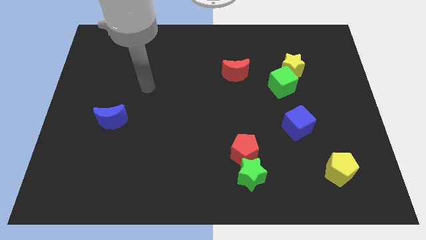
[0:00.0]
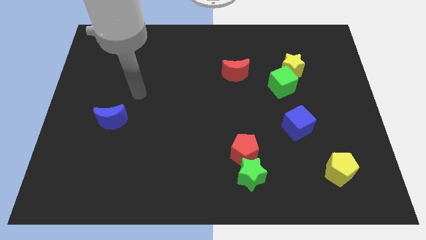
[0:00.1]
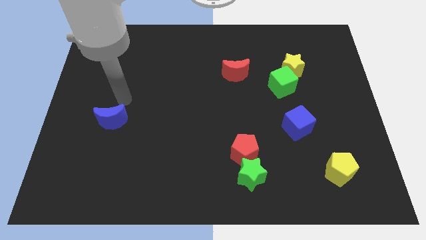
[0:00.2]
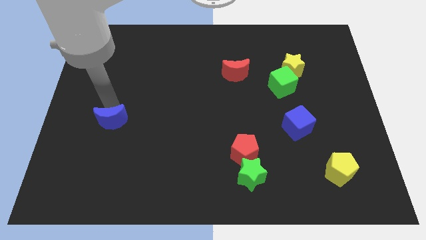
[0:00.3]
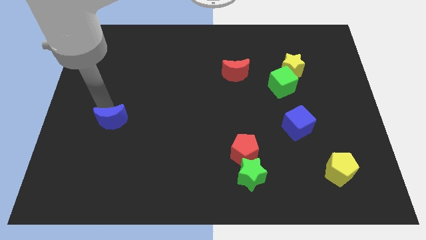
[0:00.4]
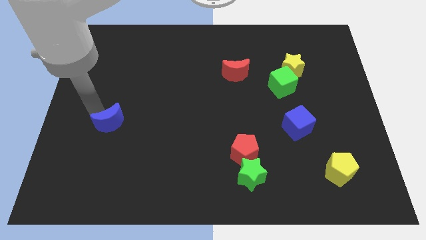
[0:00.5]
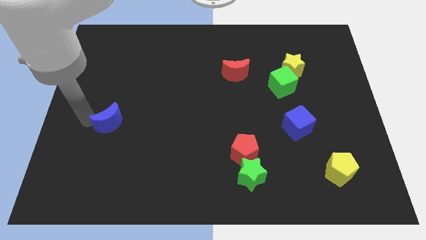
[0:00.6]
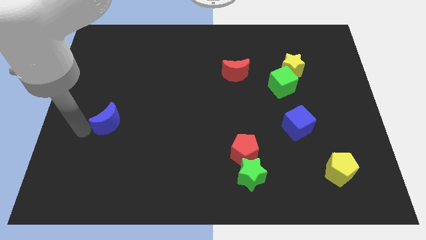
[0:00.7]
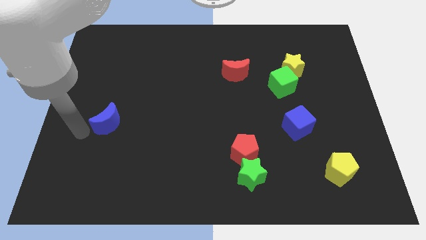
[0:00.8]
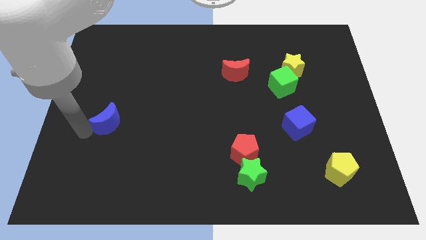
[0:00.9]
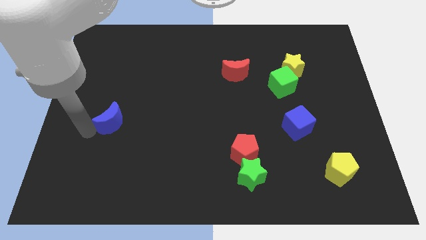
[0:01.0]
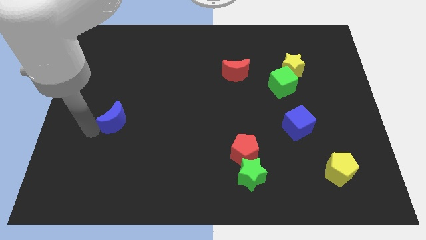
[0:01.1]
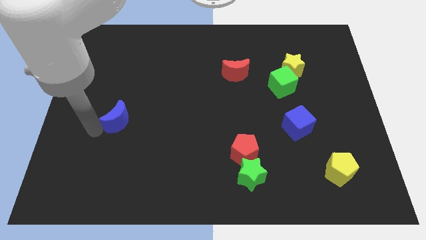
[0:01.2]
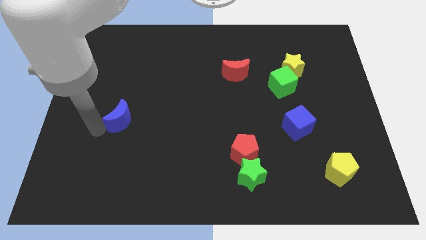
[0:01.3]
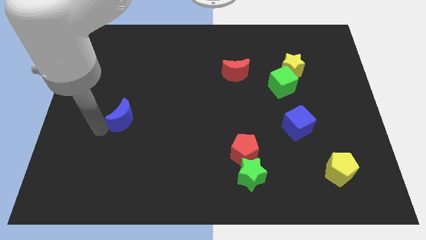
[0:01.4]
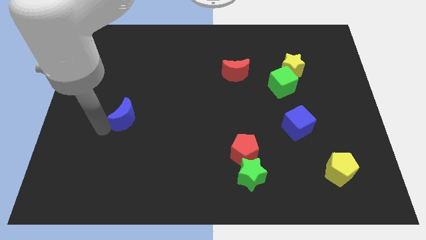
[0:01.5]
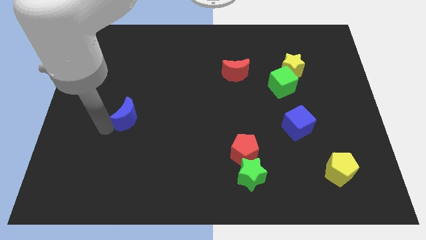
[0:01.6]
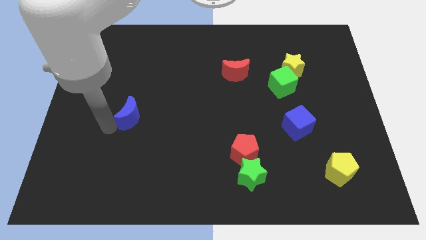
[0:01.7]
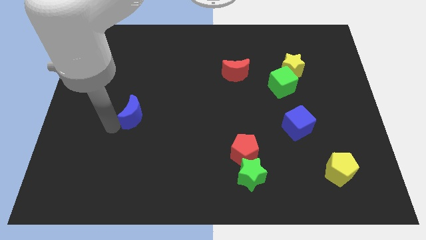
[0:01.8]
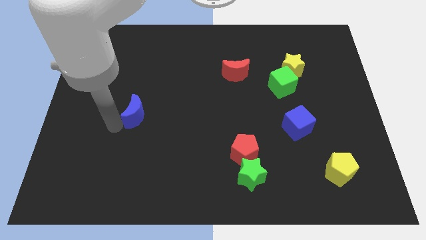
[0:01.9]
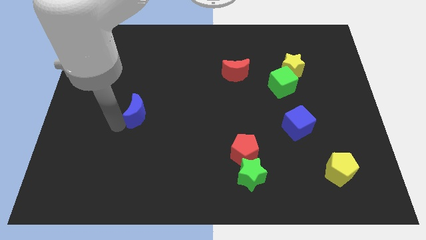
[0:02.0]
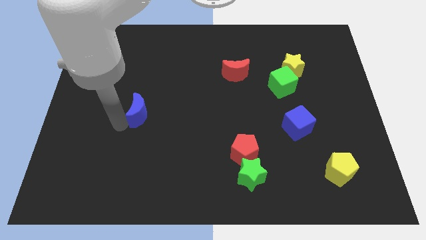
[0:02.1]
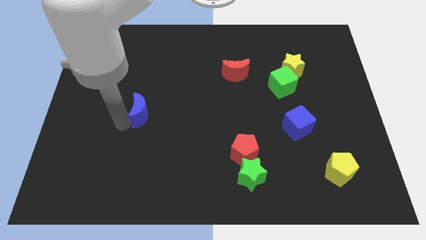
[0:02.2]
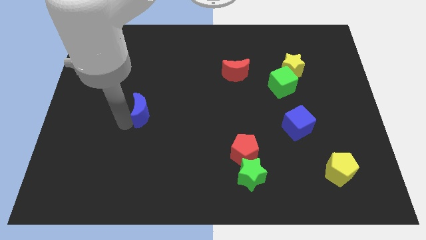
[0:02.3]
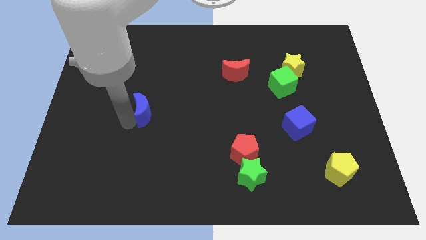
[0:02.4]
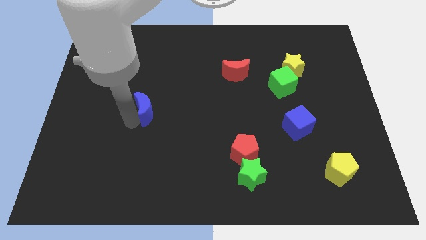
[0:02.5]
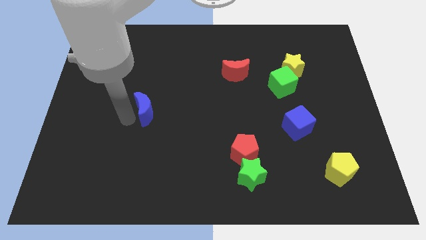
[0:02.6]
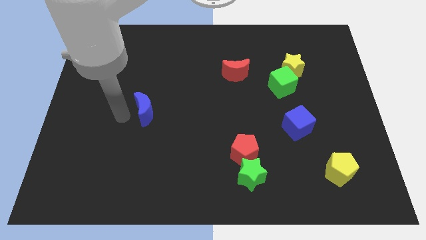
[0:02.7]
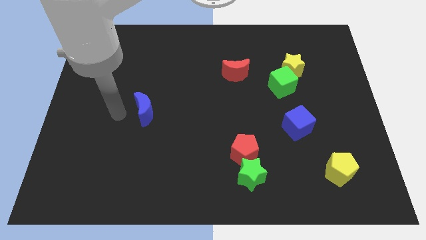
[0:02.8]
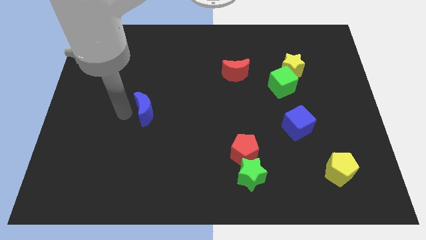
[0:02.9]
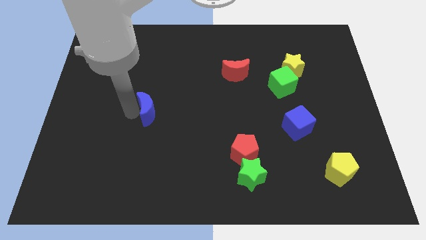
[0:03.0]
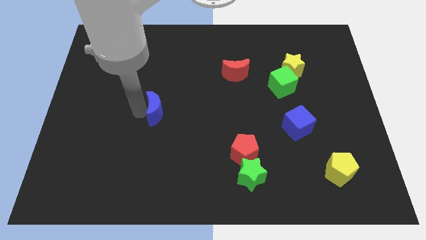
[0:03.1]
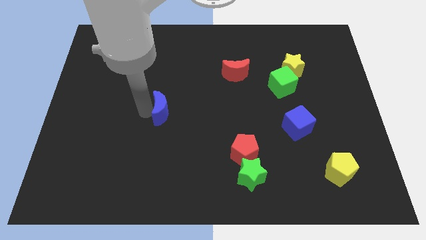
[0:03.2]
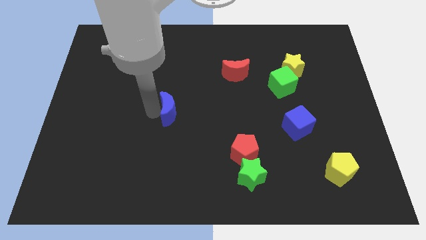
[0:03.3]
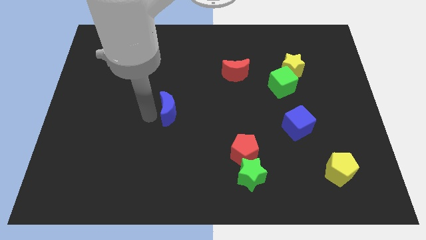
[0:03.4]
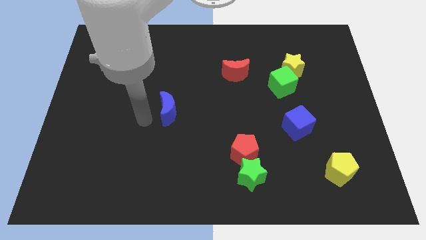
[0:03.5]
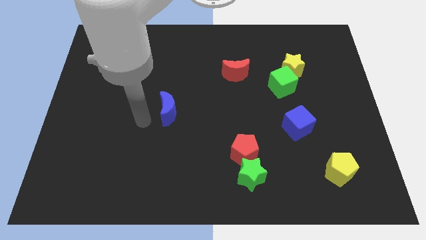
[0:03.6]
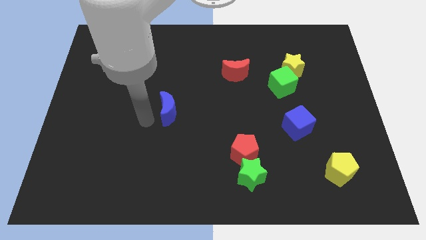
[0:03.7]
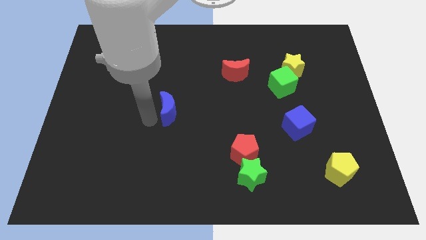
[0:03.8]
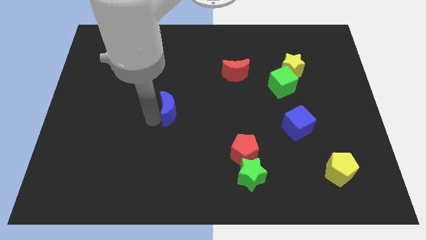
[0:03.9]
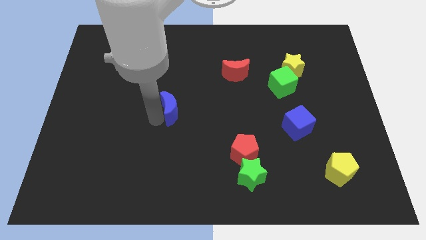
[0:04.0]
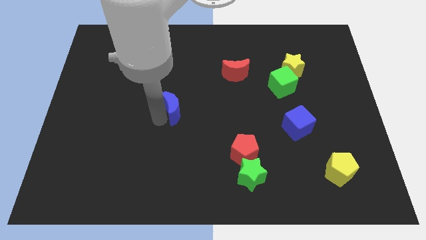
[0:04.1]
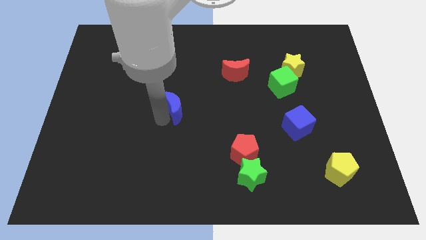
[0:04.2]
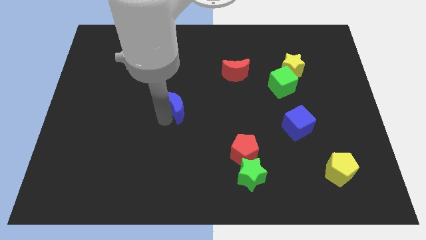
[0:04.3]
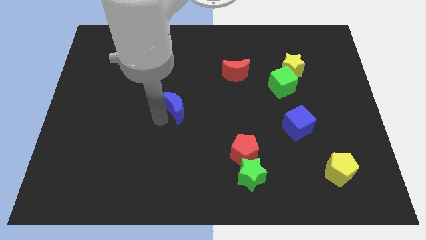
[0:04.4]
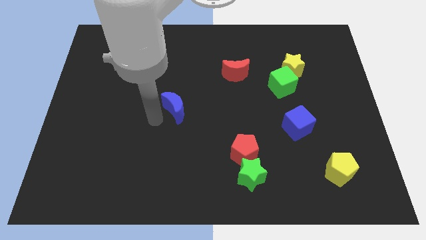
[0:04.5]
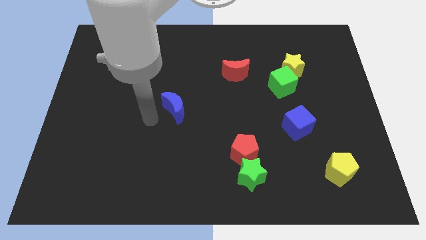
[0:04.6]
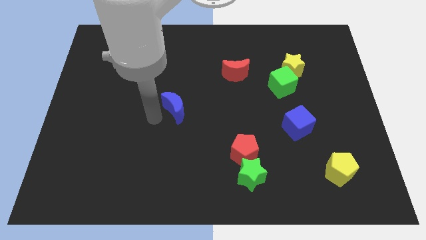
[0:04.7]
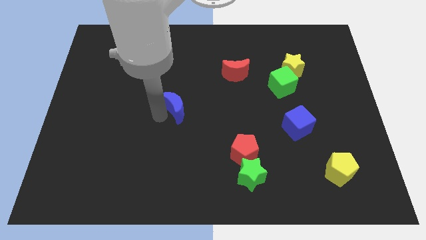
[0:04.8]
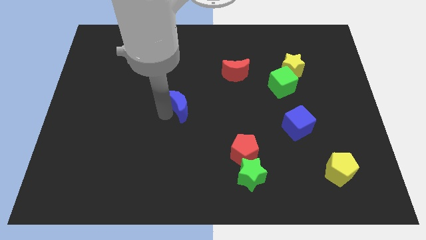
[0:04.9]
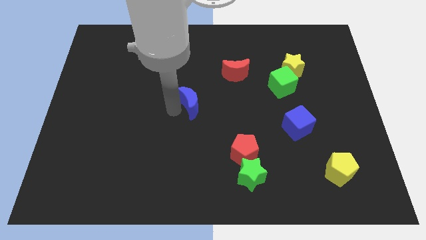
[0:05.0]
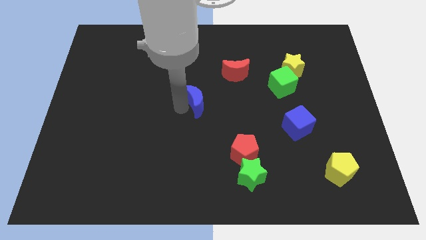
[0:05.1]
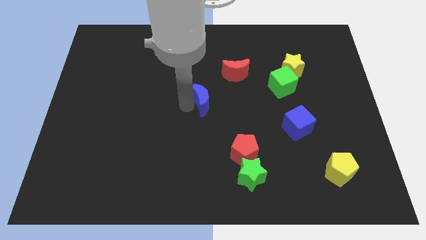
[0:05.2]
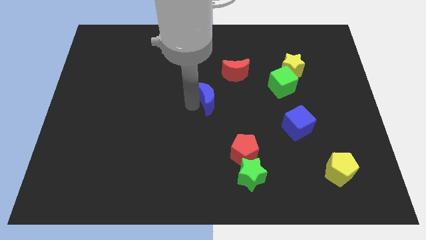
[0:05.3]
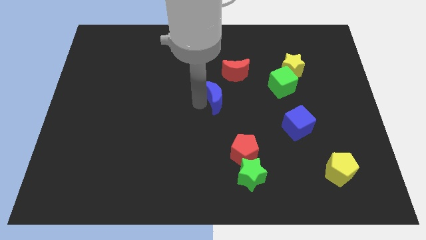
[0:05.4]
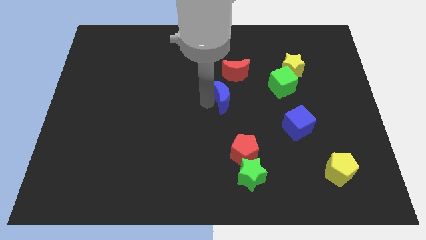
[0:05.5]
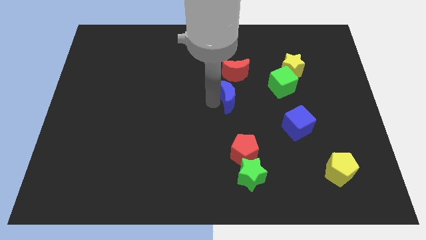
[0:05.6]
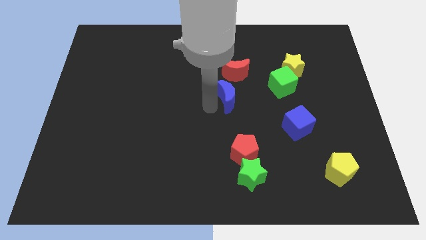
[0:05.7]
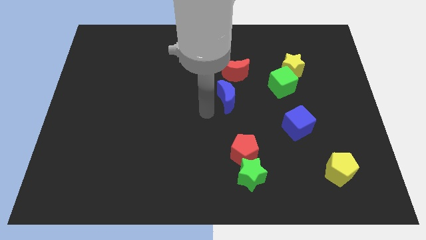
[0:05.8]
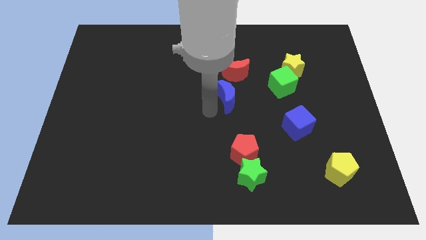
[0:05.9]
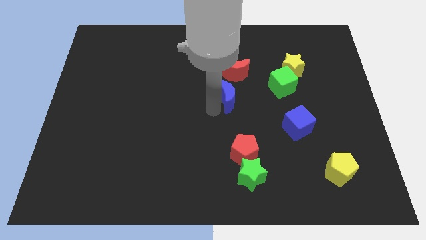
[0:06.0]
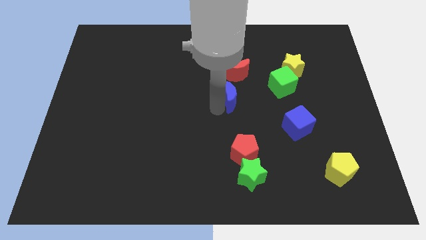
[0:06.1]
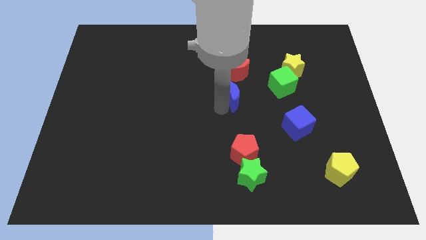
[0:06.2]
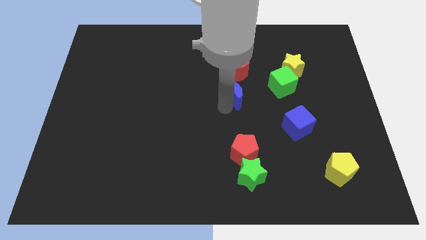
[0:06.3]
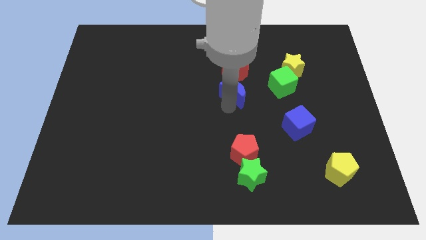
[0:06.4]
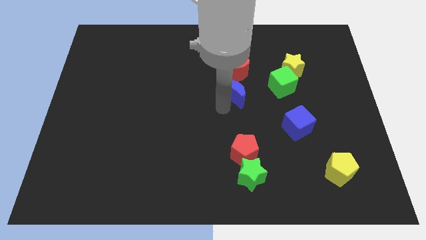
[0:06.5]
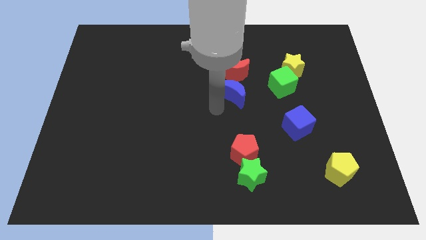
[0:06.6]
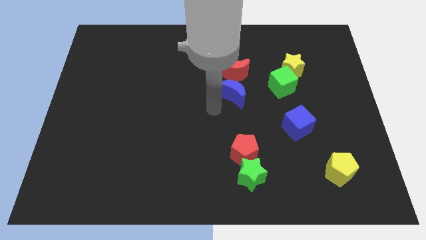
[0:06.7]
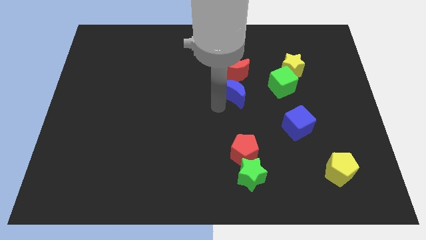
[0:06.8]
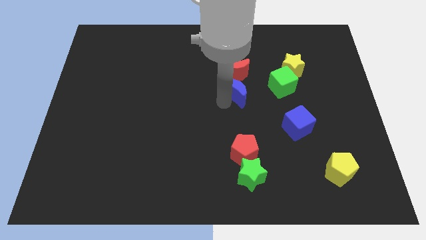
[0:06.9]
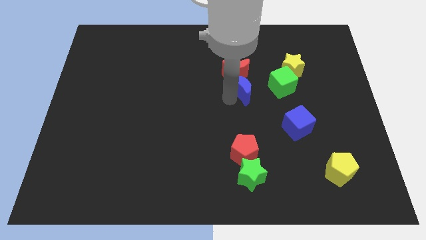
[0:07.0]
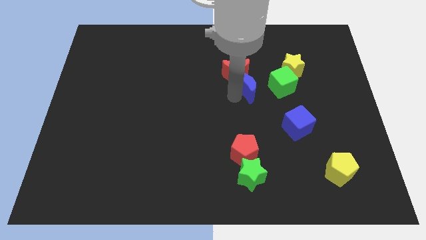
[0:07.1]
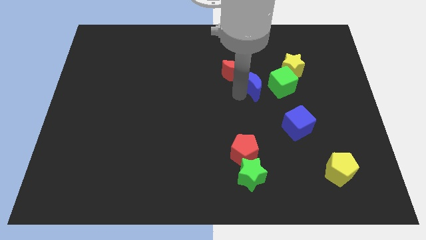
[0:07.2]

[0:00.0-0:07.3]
move the blue moon to the right of the red moon
